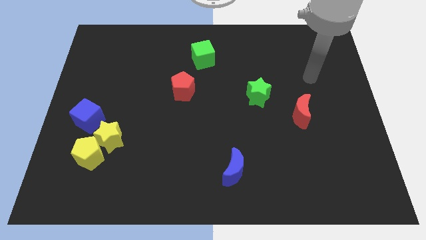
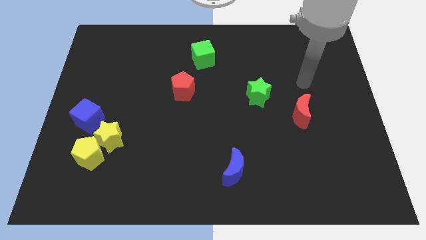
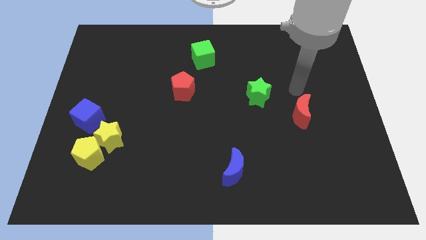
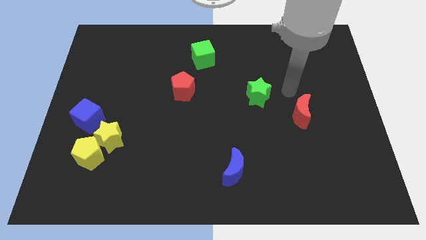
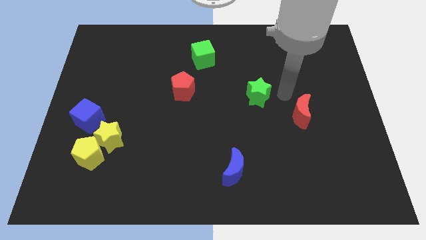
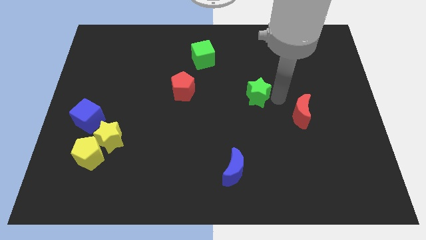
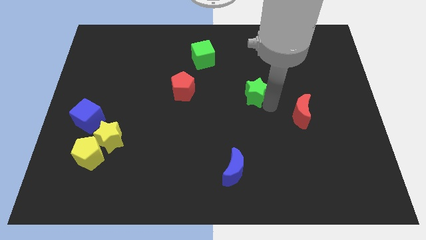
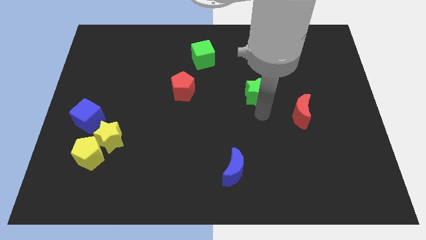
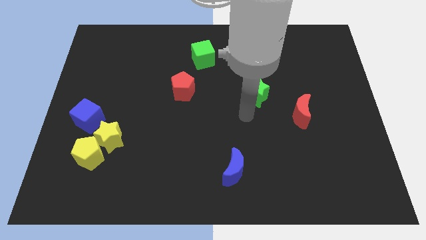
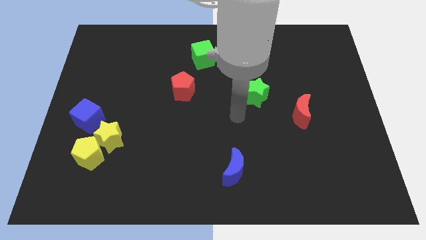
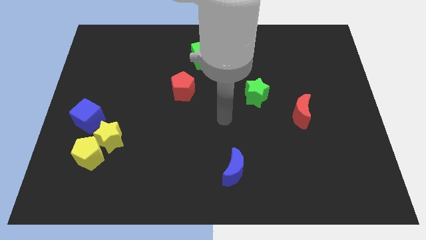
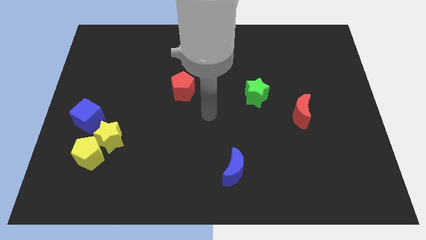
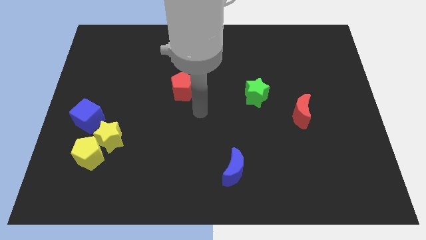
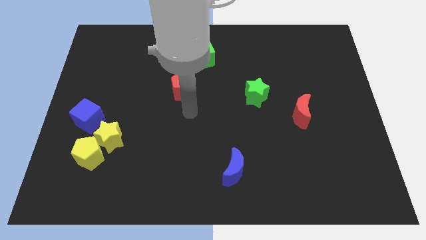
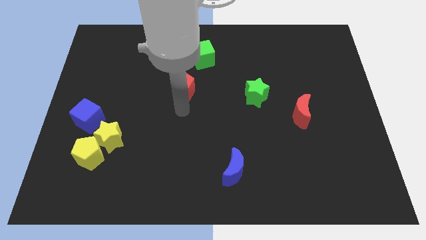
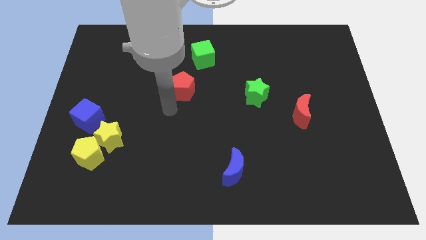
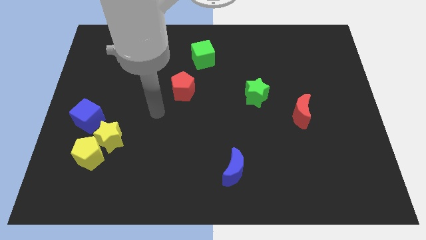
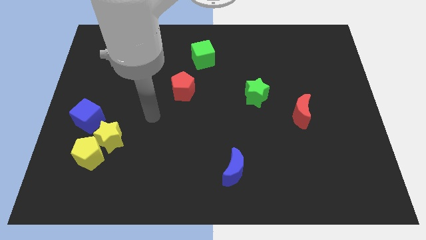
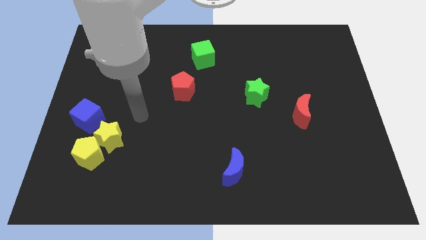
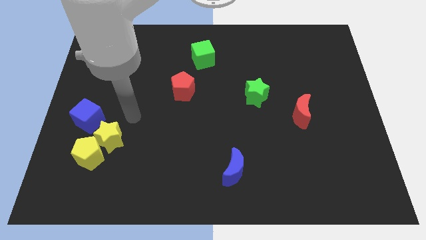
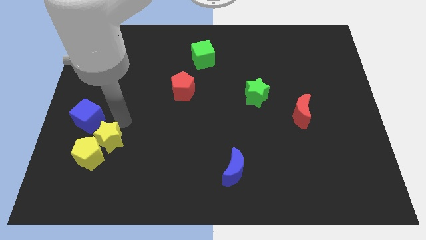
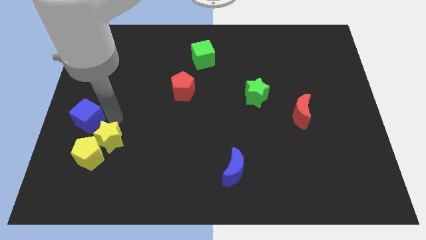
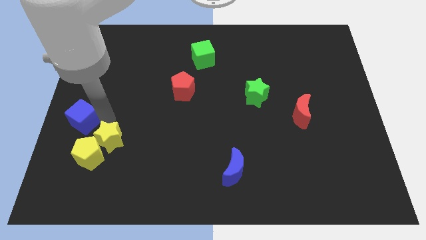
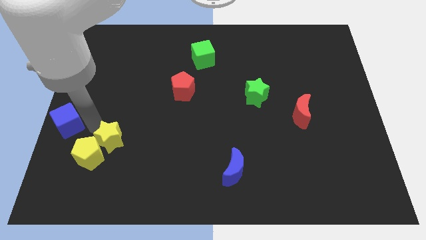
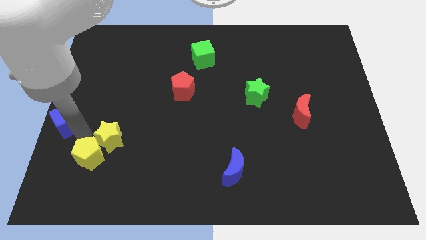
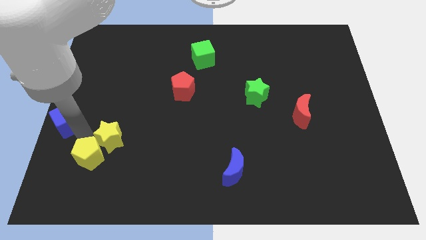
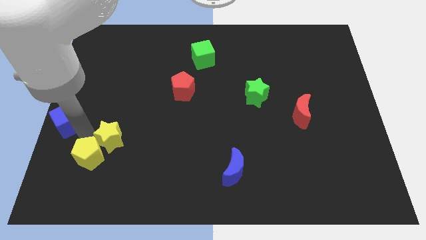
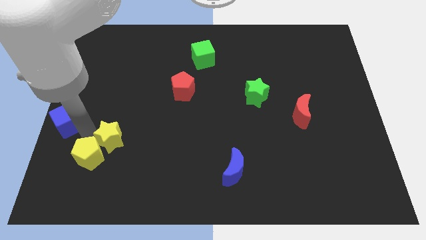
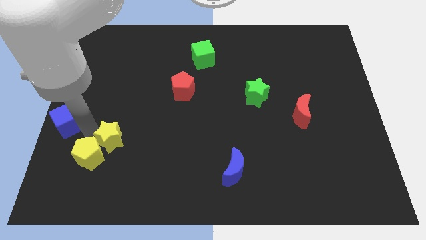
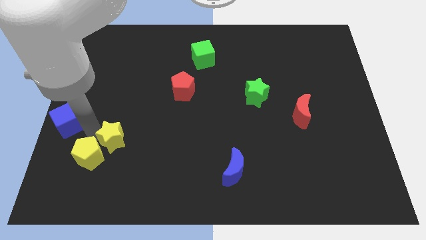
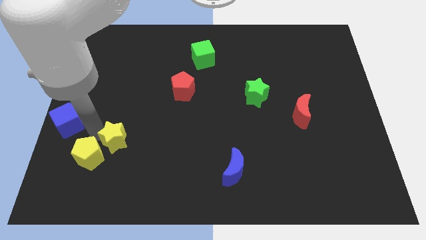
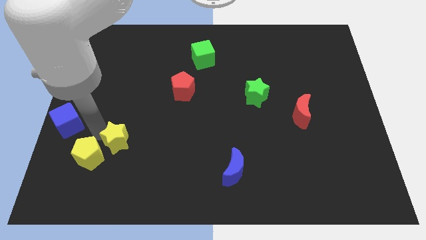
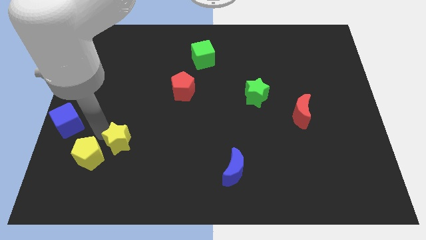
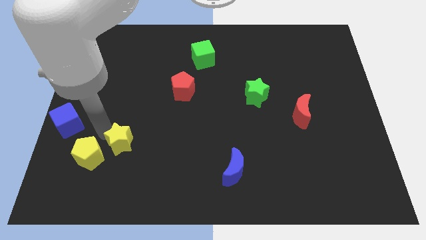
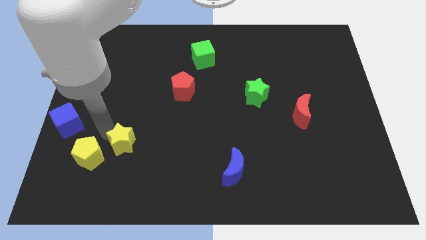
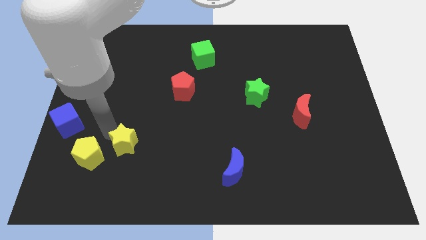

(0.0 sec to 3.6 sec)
move the yellow star away from the yellow pentagon and blue cube

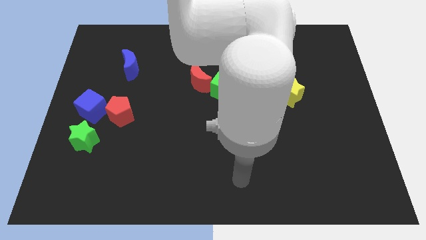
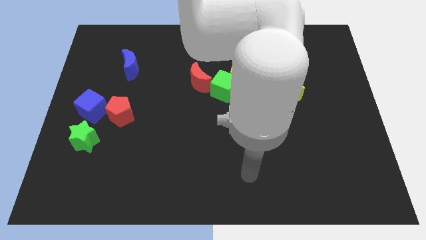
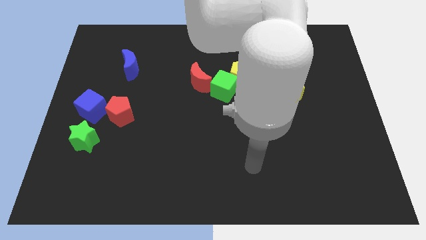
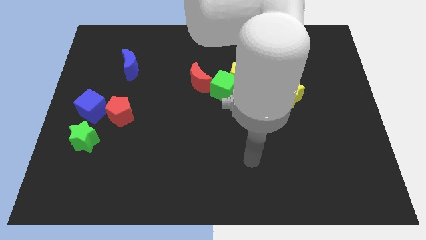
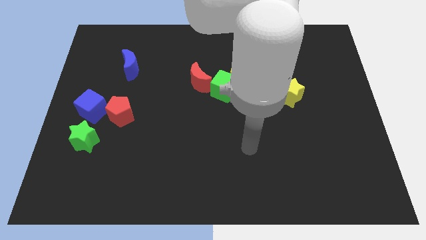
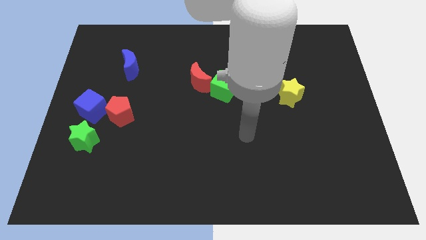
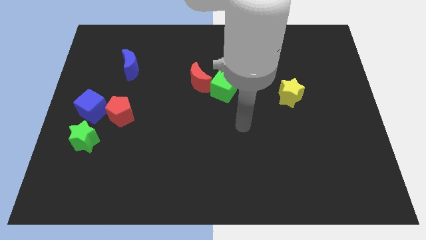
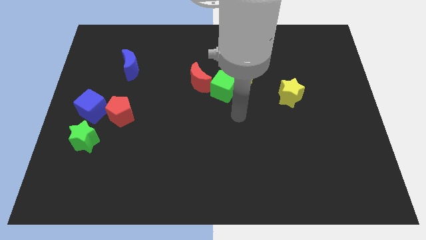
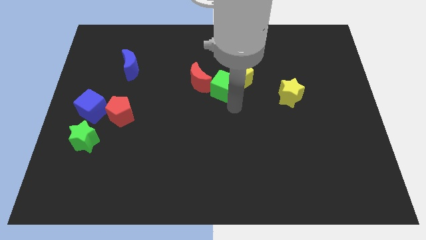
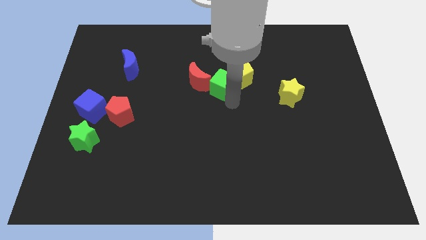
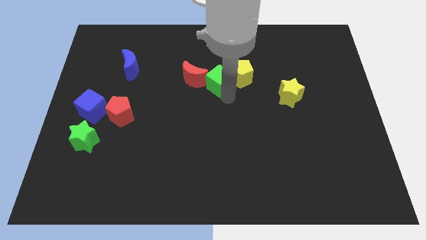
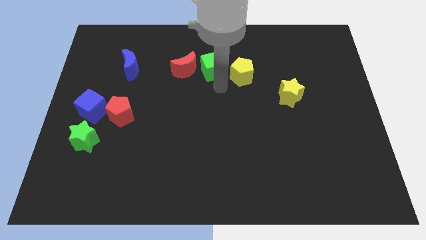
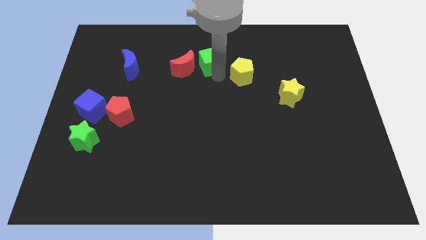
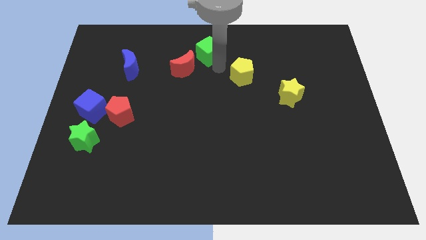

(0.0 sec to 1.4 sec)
move the yellow pentagon away from the green cube

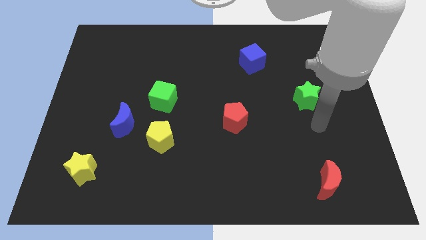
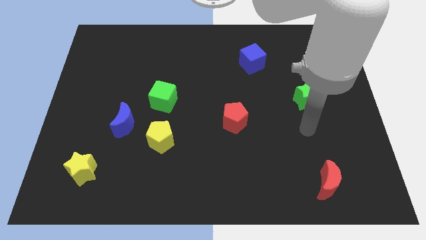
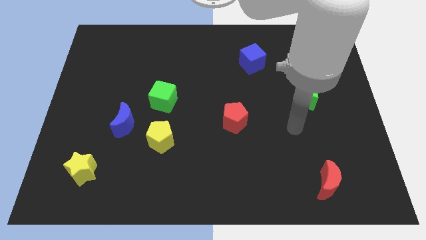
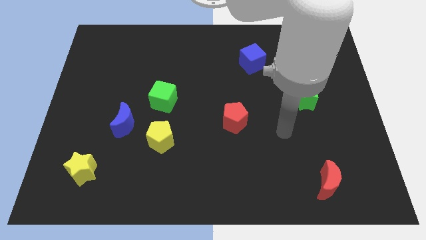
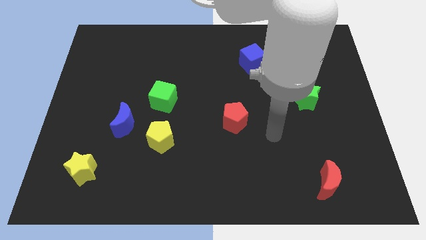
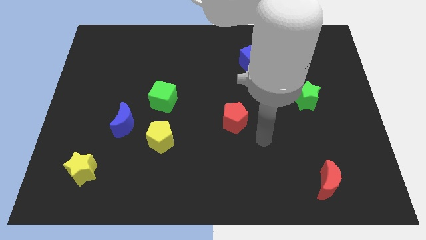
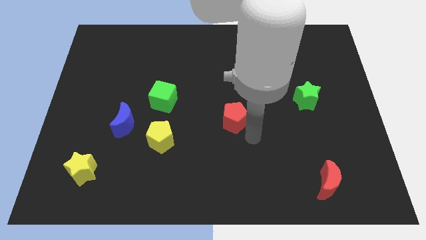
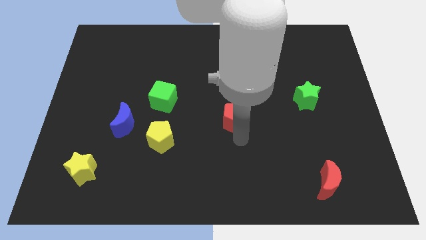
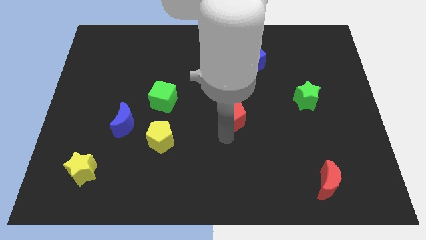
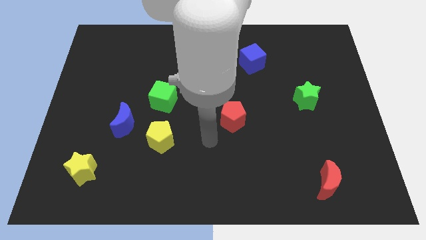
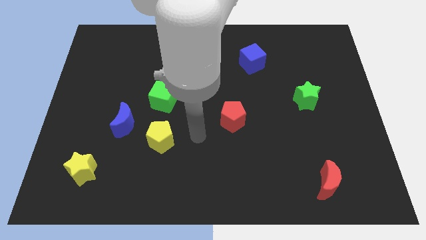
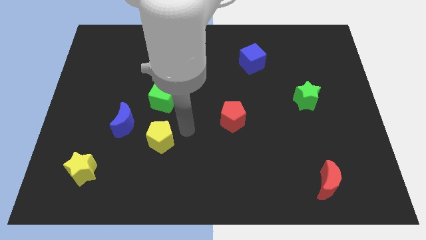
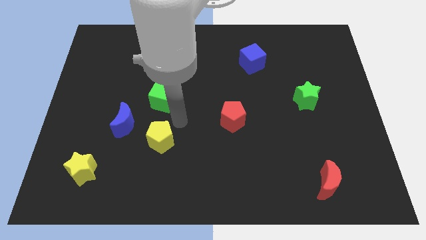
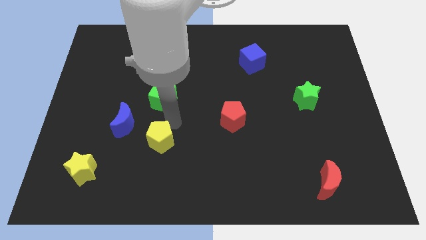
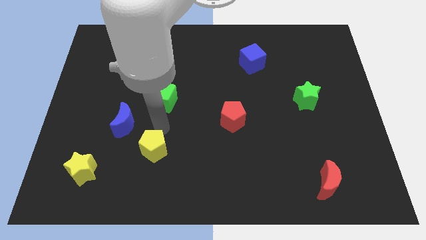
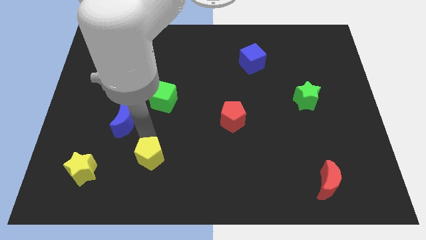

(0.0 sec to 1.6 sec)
separate the blue moon from the yellow pentagon

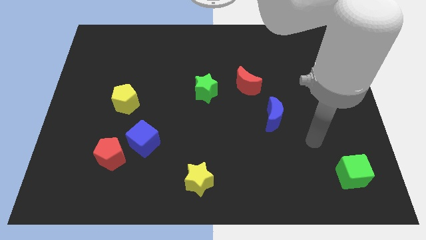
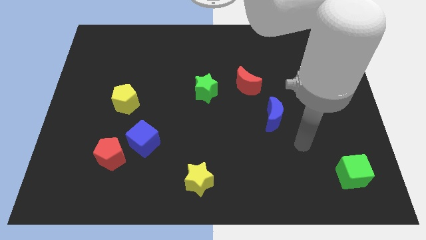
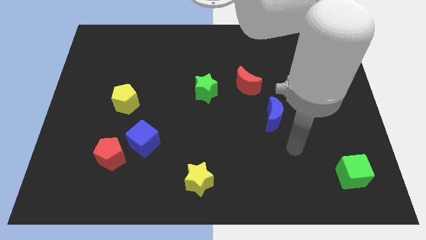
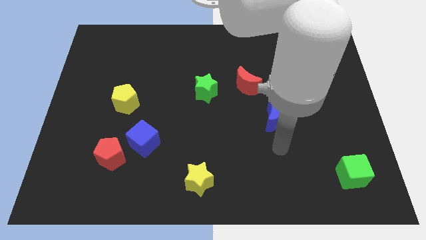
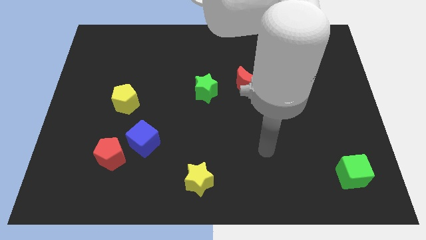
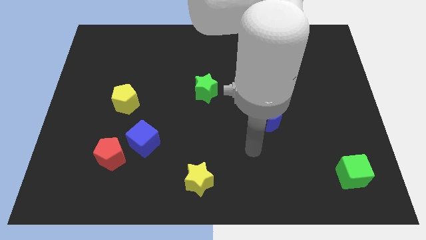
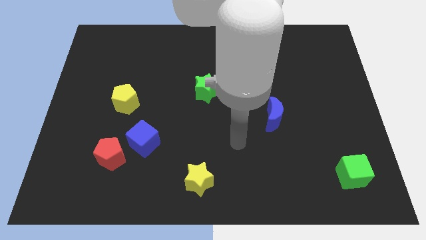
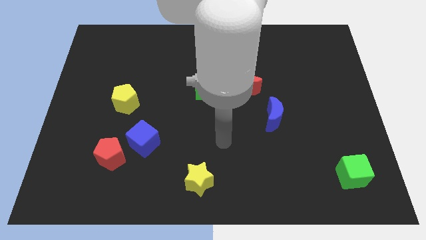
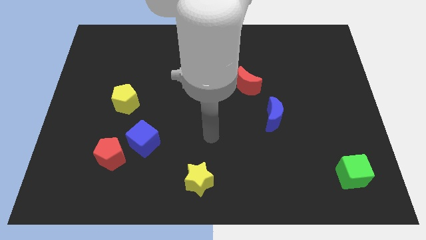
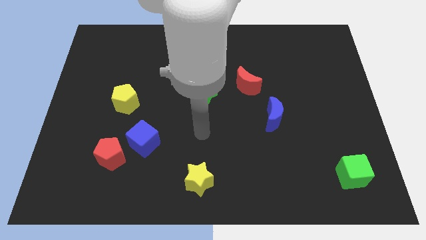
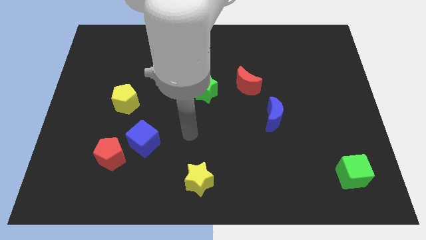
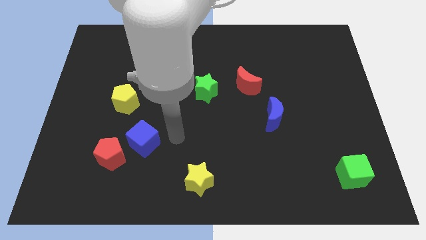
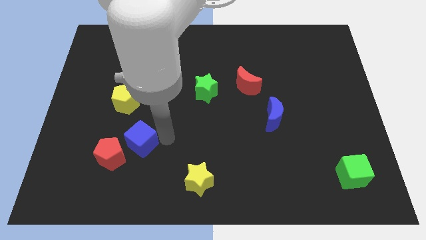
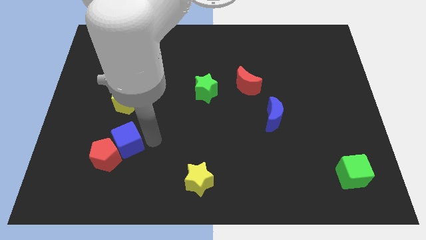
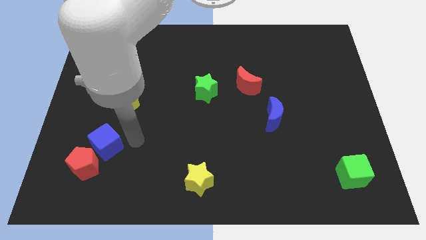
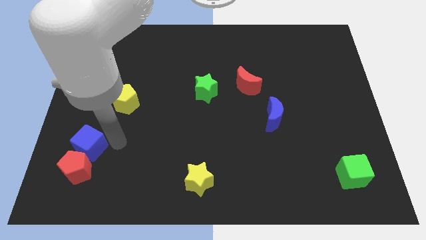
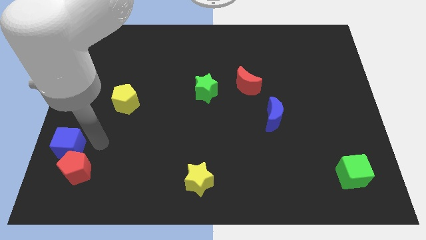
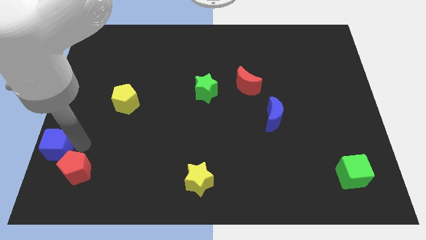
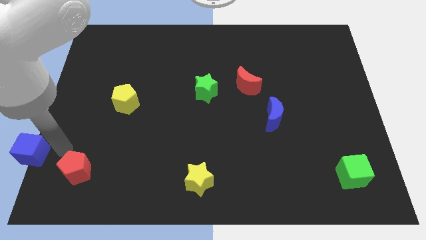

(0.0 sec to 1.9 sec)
move the red pentagon away from the blue cube

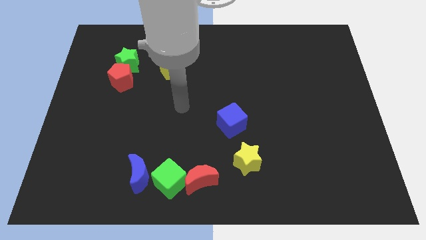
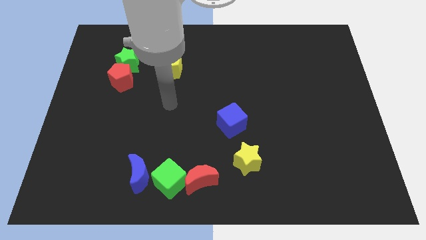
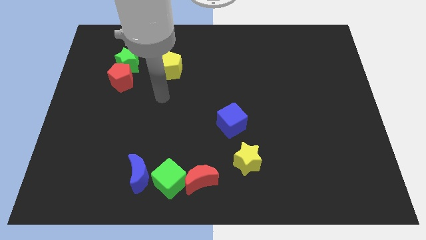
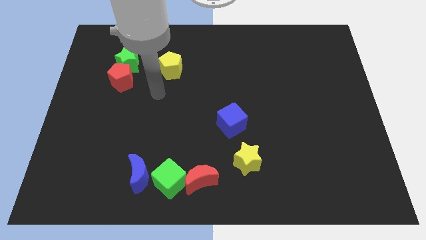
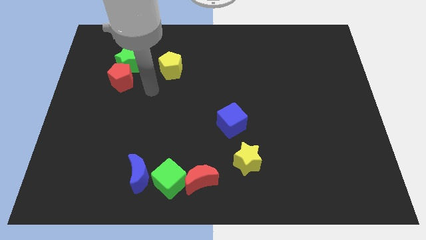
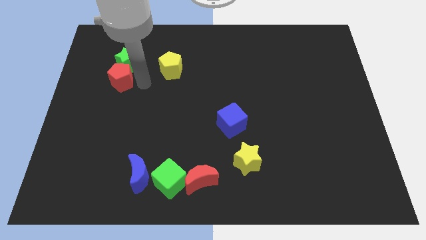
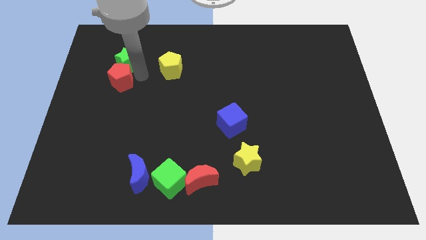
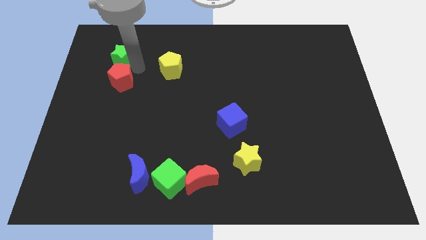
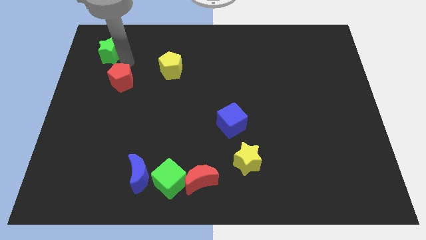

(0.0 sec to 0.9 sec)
pull the red pentagon apart from the green star

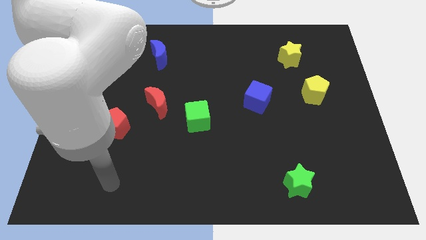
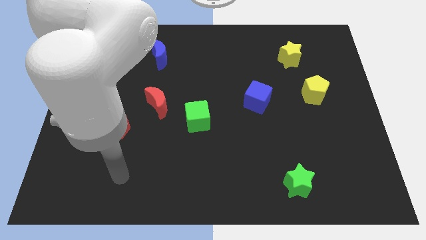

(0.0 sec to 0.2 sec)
move the red moon away from the green cube
